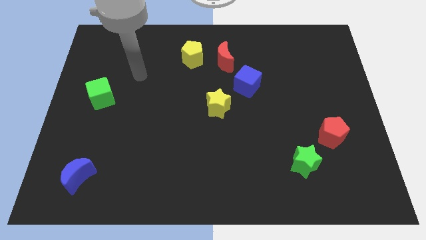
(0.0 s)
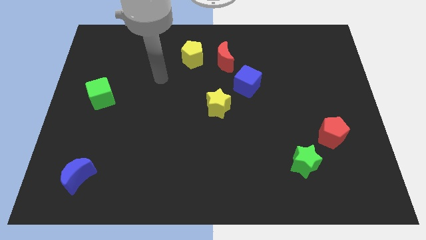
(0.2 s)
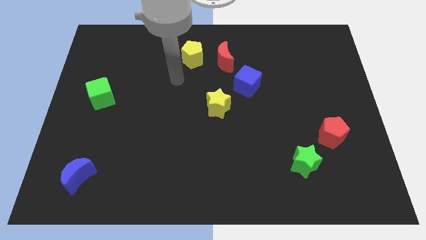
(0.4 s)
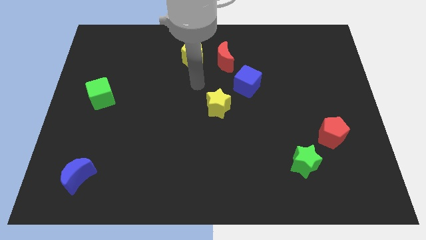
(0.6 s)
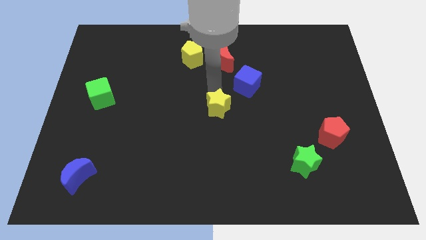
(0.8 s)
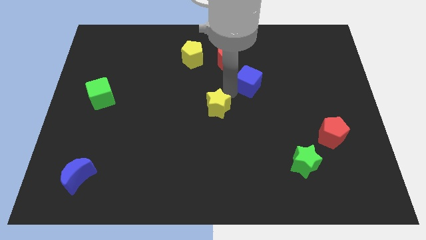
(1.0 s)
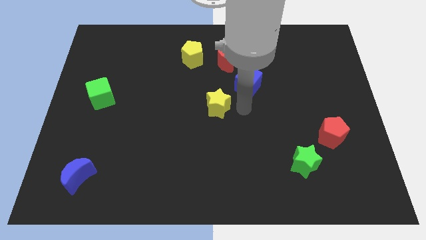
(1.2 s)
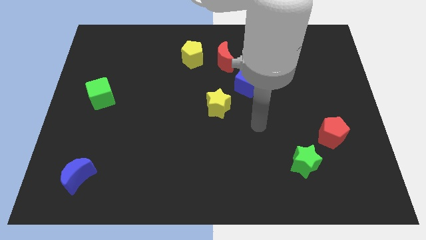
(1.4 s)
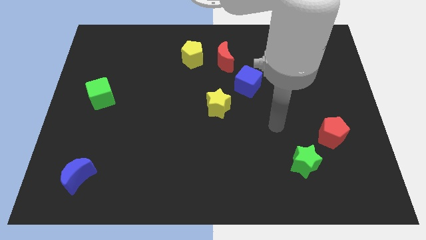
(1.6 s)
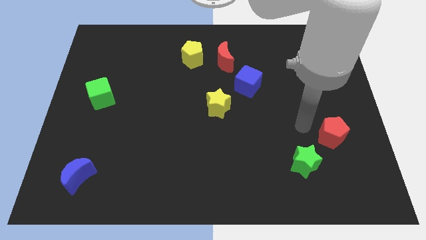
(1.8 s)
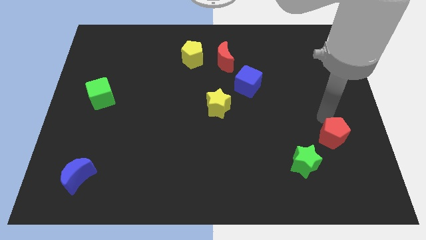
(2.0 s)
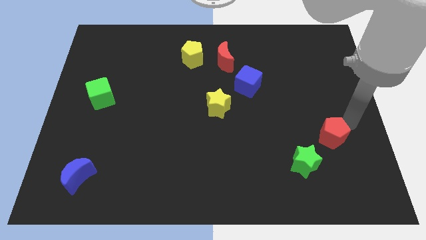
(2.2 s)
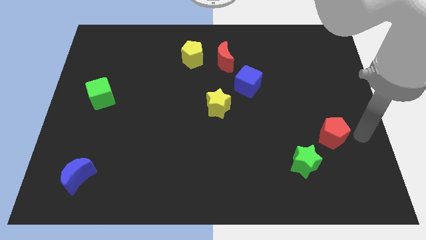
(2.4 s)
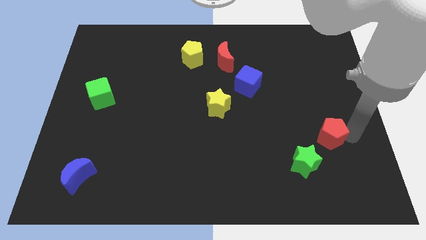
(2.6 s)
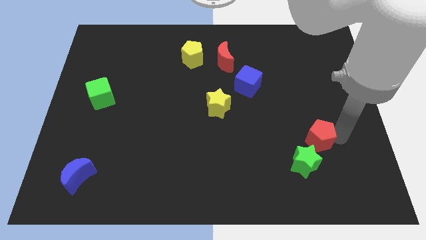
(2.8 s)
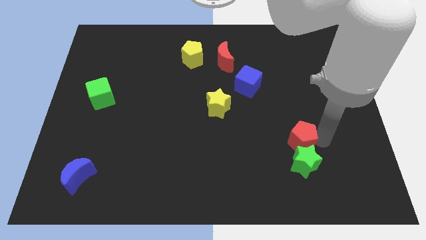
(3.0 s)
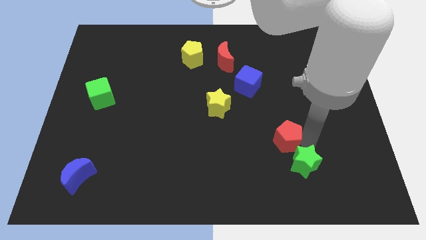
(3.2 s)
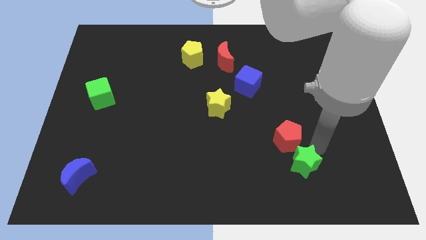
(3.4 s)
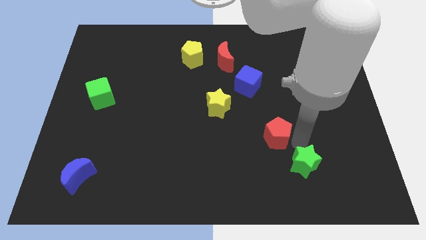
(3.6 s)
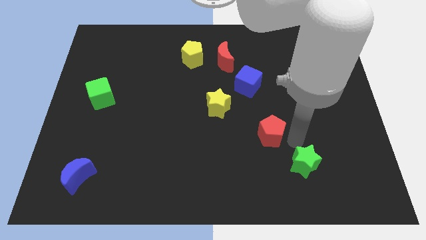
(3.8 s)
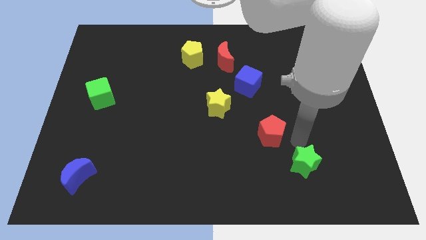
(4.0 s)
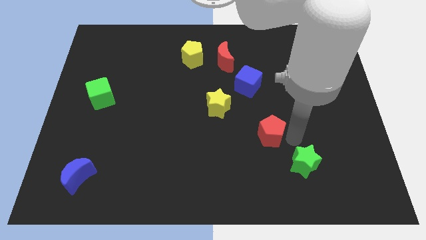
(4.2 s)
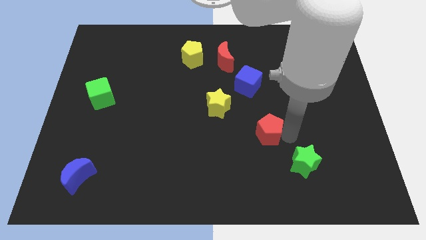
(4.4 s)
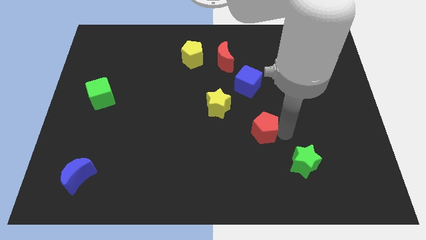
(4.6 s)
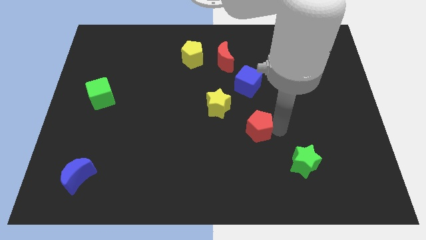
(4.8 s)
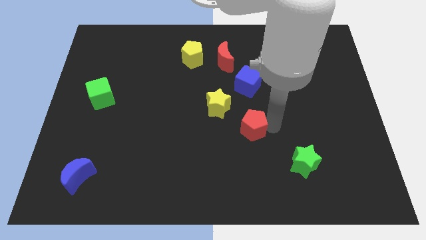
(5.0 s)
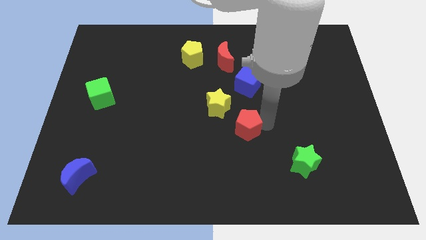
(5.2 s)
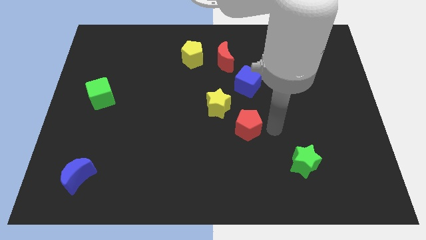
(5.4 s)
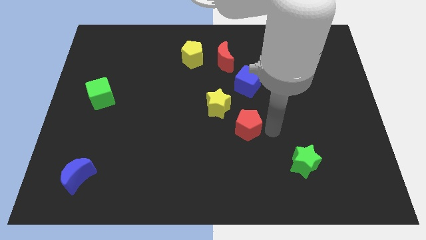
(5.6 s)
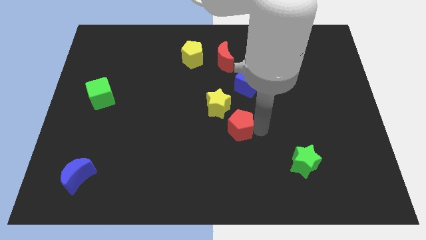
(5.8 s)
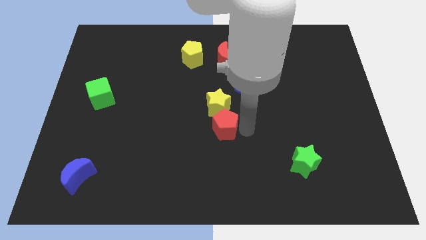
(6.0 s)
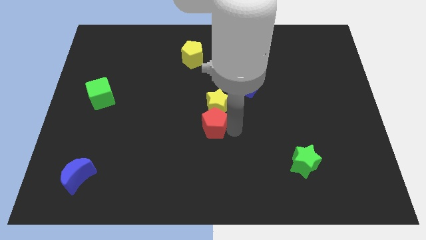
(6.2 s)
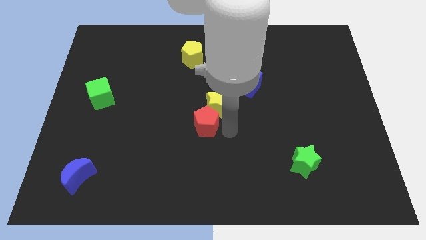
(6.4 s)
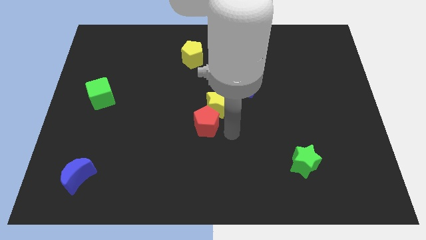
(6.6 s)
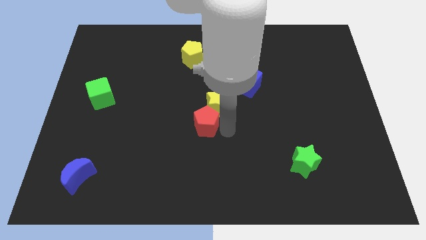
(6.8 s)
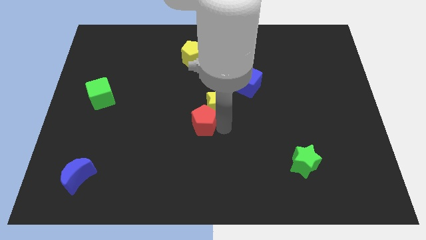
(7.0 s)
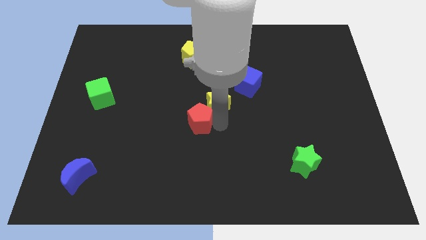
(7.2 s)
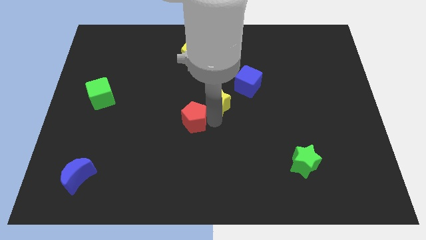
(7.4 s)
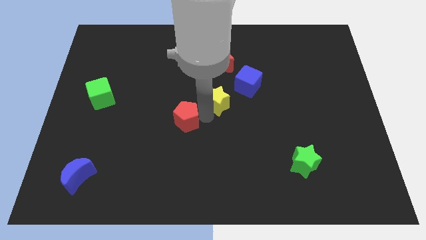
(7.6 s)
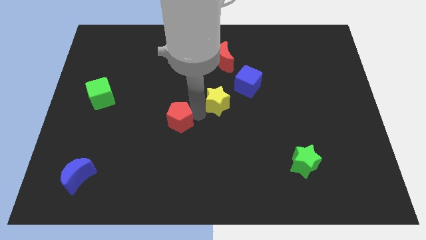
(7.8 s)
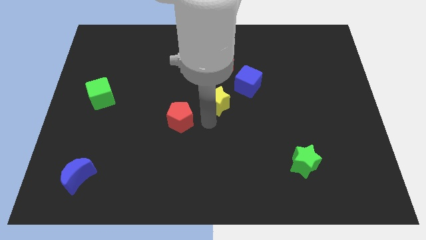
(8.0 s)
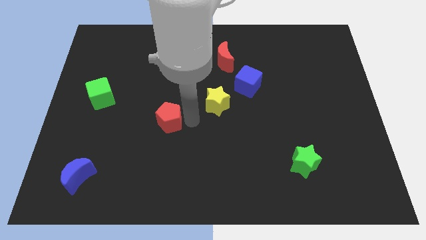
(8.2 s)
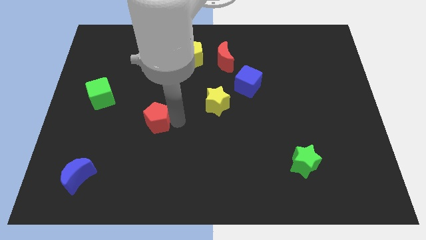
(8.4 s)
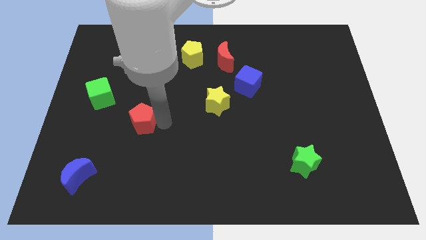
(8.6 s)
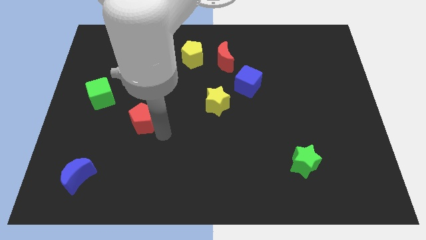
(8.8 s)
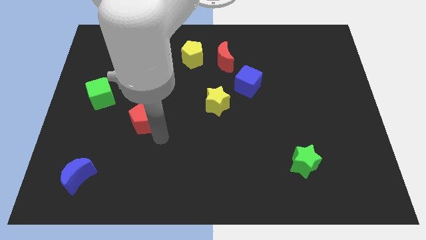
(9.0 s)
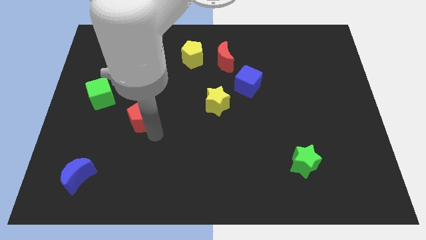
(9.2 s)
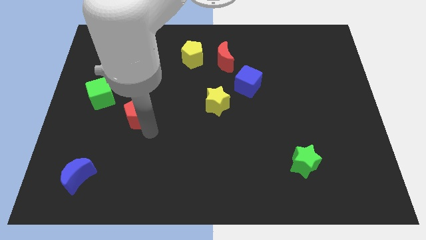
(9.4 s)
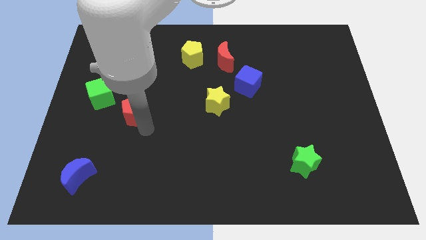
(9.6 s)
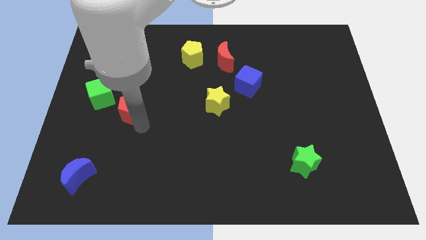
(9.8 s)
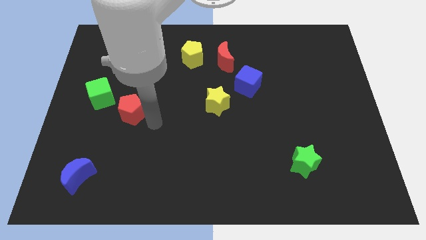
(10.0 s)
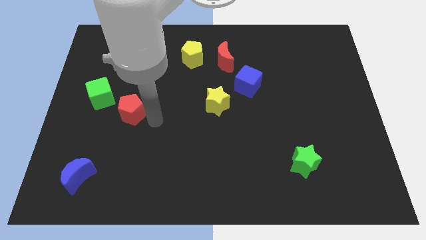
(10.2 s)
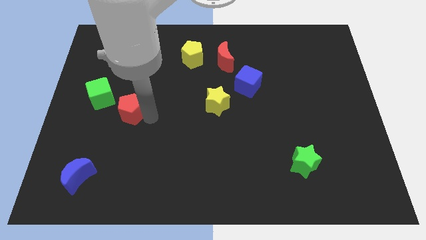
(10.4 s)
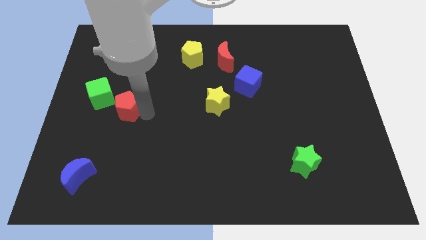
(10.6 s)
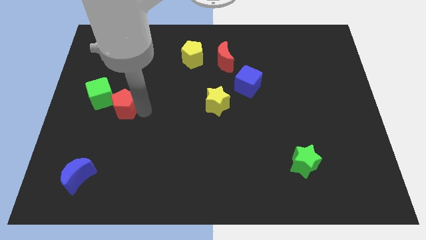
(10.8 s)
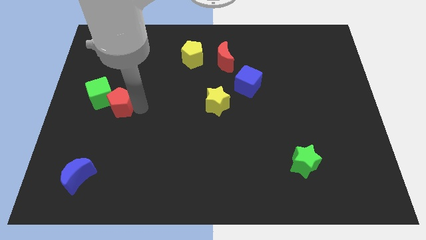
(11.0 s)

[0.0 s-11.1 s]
slide the red pentagon close to the green cube
